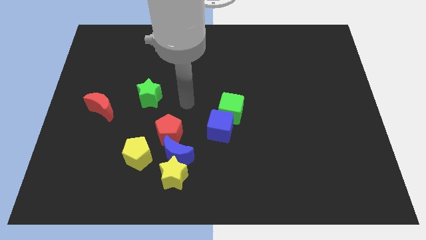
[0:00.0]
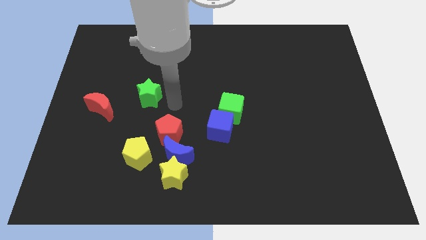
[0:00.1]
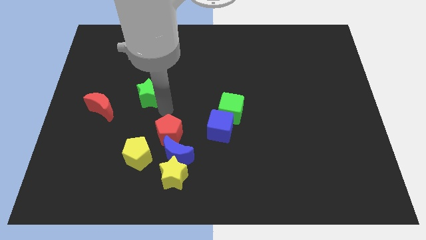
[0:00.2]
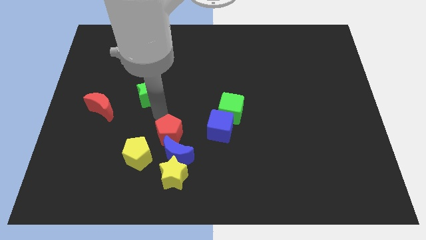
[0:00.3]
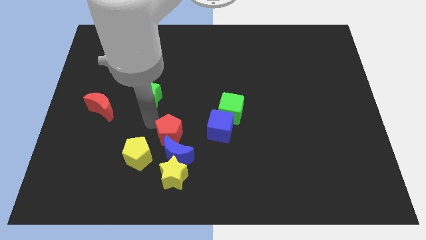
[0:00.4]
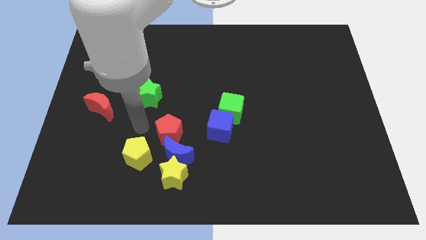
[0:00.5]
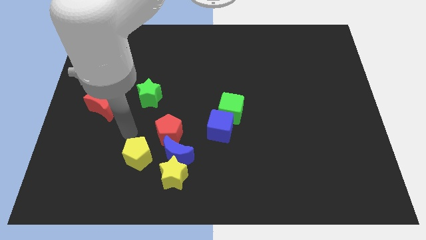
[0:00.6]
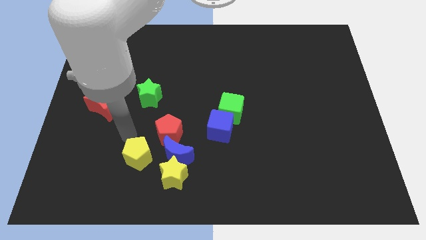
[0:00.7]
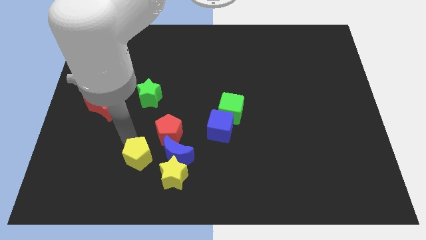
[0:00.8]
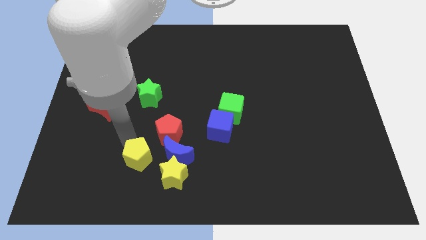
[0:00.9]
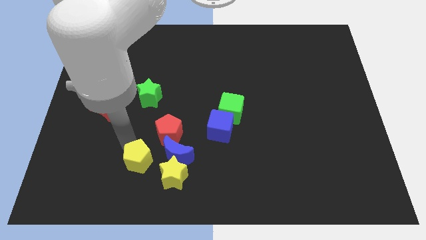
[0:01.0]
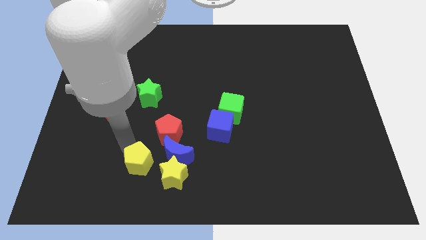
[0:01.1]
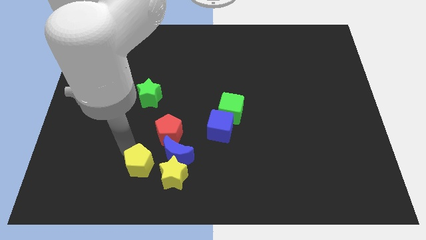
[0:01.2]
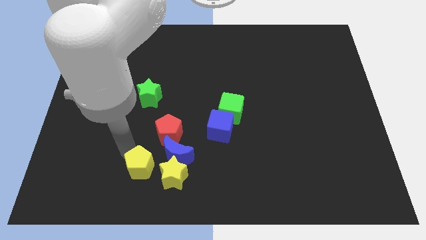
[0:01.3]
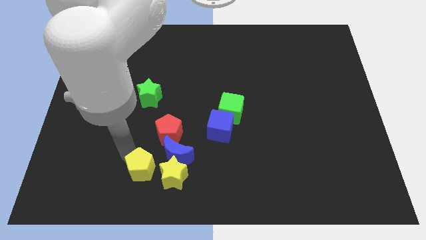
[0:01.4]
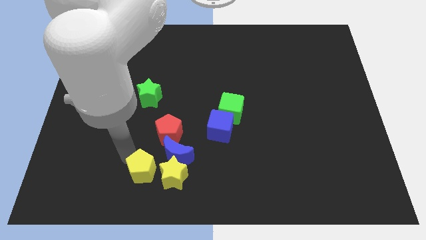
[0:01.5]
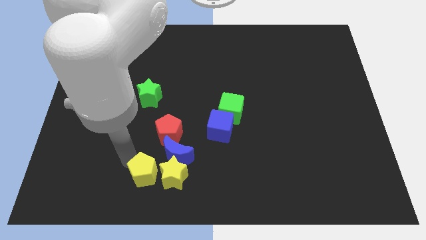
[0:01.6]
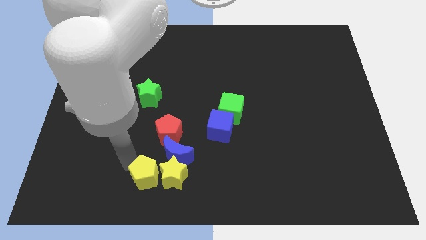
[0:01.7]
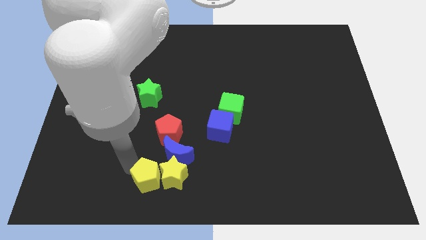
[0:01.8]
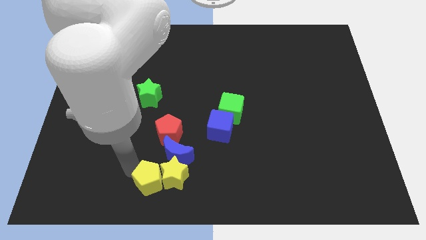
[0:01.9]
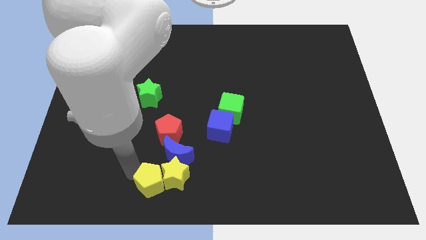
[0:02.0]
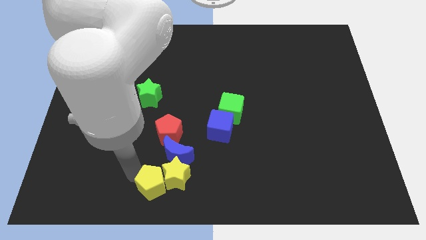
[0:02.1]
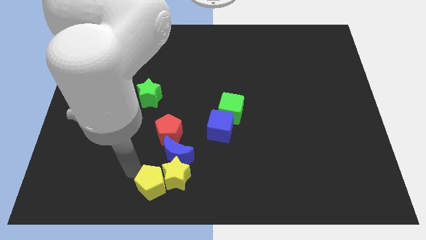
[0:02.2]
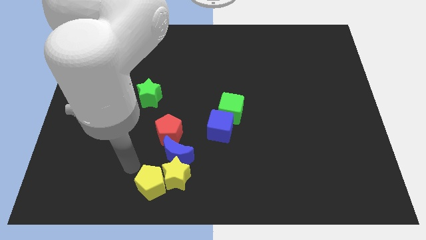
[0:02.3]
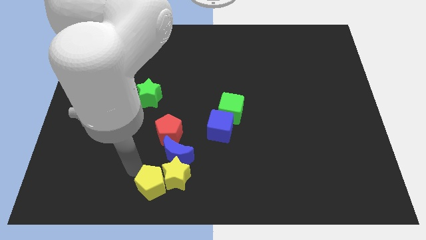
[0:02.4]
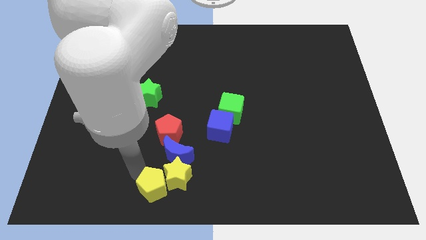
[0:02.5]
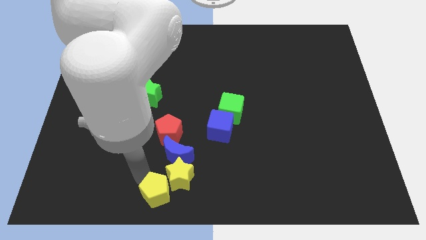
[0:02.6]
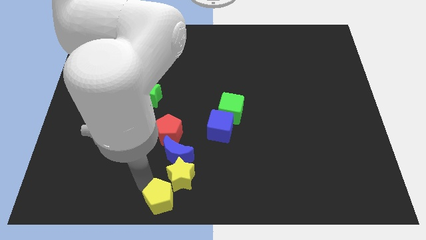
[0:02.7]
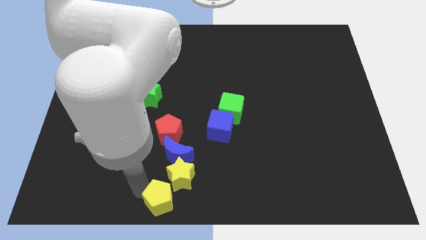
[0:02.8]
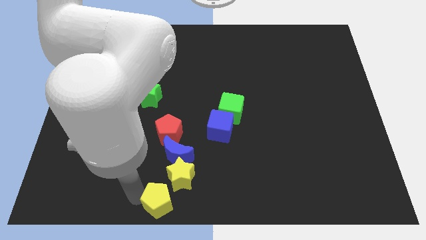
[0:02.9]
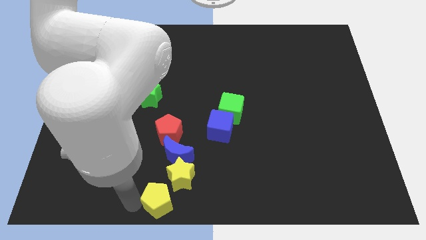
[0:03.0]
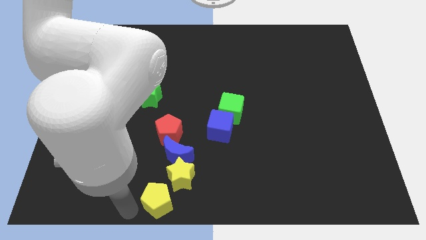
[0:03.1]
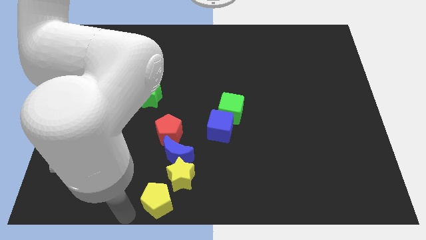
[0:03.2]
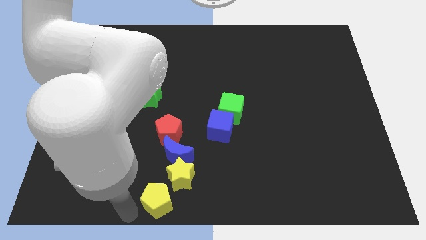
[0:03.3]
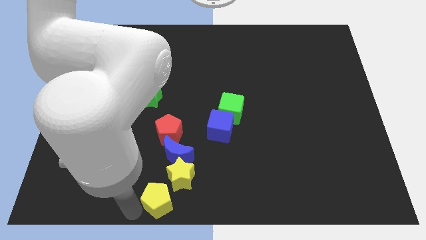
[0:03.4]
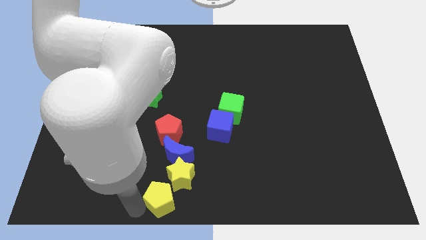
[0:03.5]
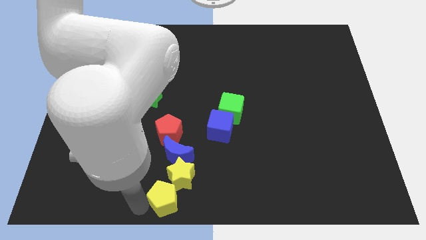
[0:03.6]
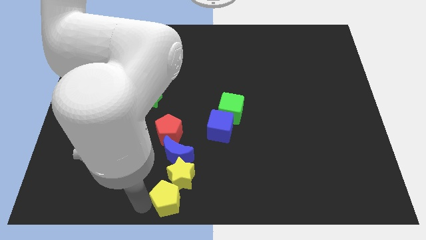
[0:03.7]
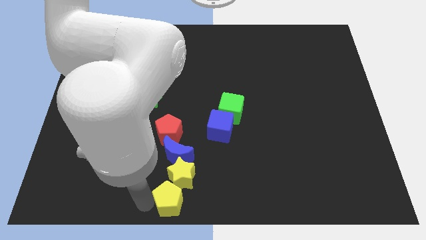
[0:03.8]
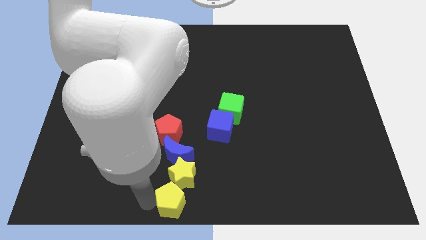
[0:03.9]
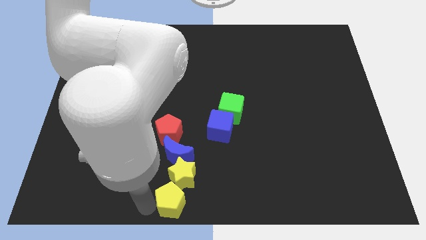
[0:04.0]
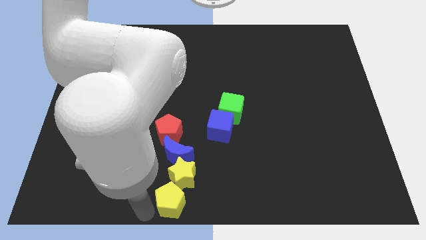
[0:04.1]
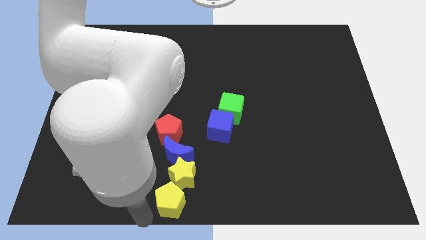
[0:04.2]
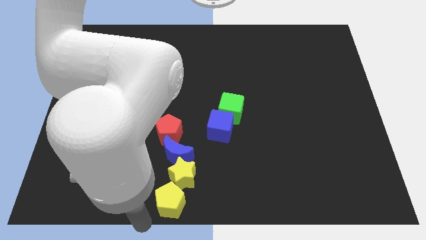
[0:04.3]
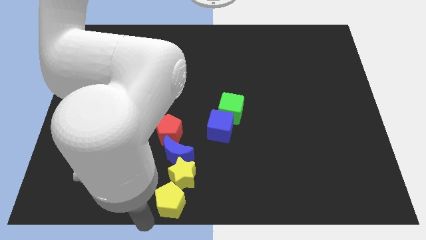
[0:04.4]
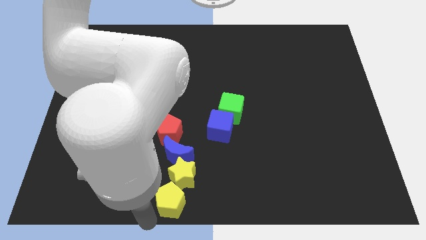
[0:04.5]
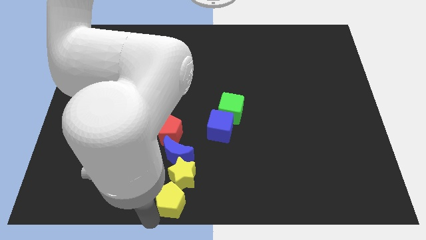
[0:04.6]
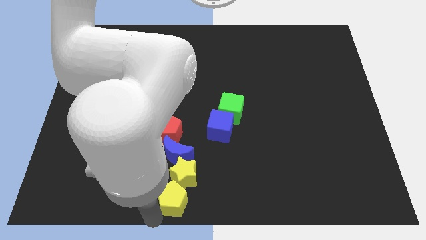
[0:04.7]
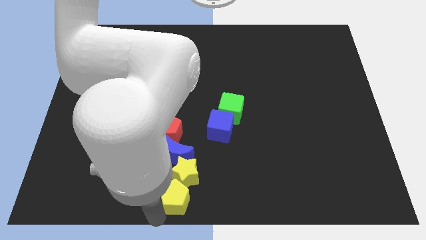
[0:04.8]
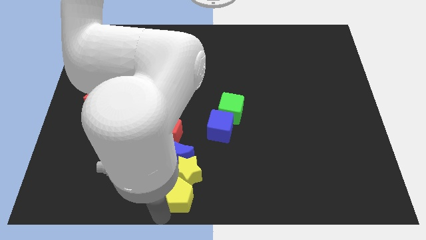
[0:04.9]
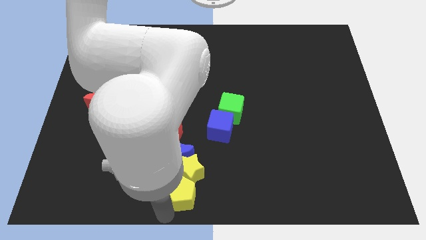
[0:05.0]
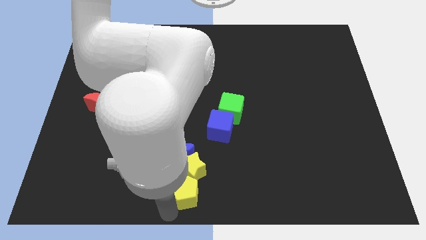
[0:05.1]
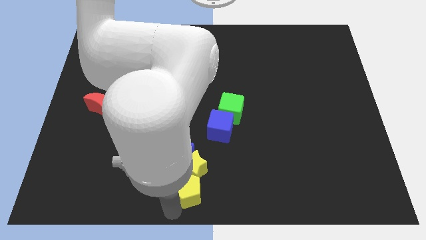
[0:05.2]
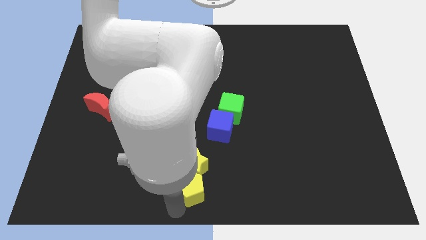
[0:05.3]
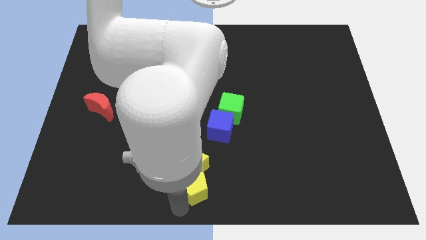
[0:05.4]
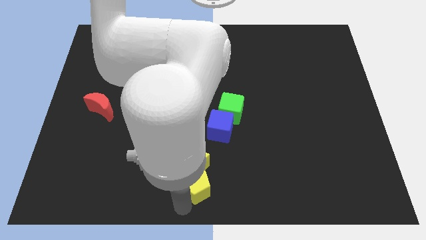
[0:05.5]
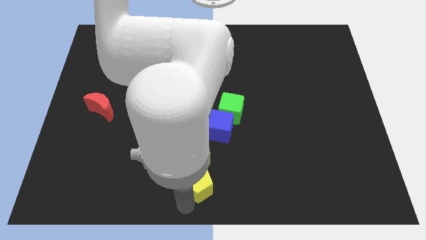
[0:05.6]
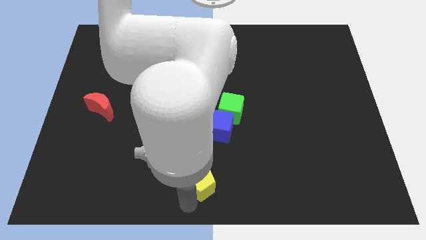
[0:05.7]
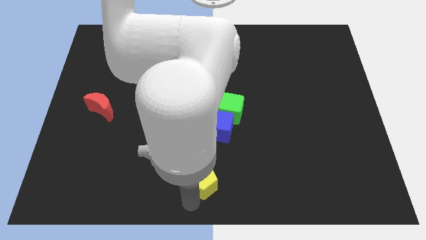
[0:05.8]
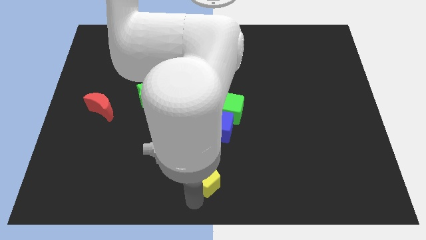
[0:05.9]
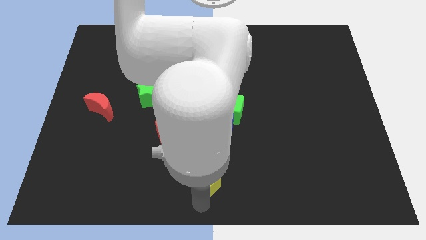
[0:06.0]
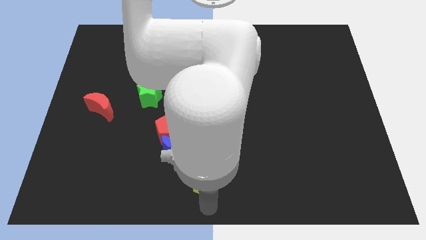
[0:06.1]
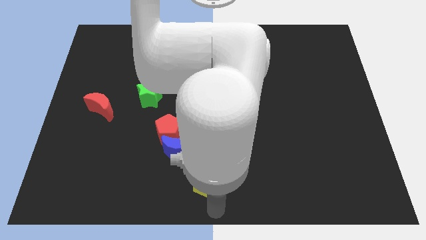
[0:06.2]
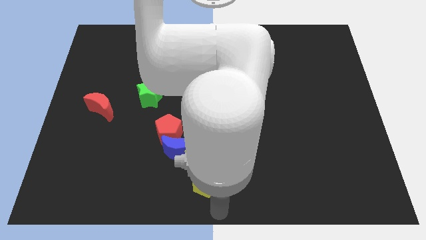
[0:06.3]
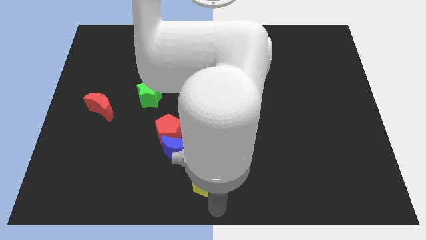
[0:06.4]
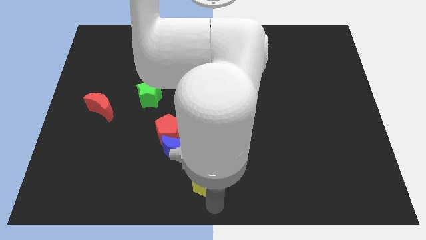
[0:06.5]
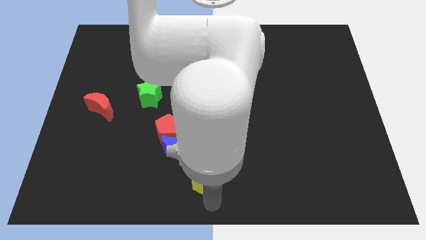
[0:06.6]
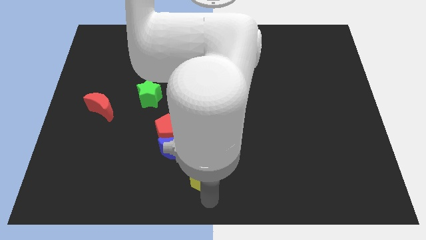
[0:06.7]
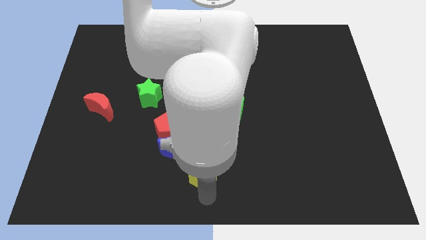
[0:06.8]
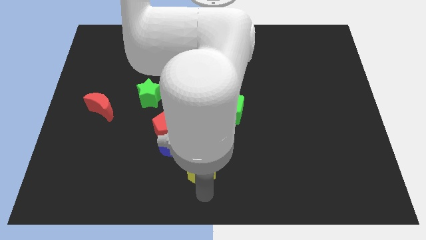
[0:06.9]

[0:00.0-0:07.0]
put the yellow pentagon to the bottom right of the red pentagon

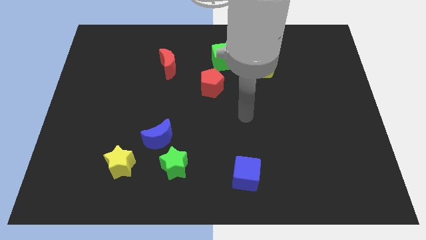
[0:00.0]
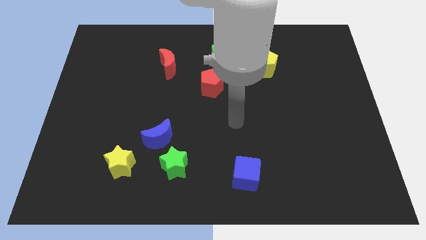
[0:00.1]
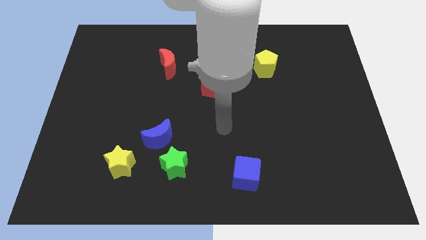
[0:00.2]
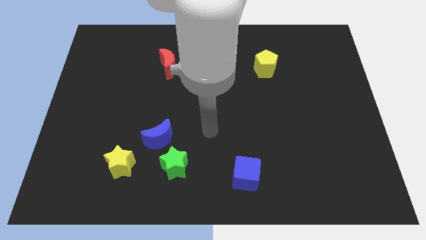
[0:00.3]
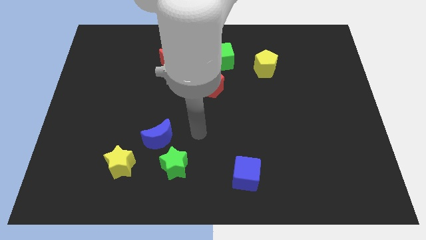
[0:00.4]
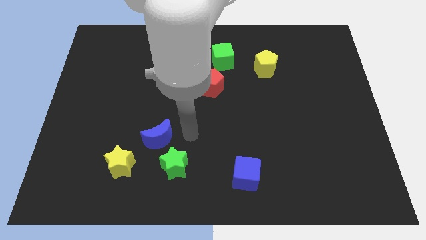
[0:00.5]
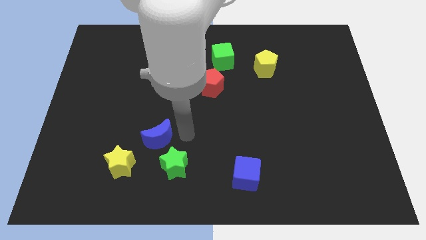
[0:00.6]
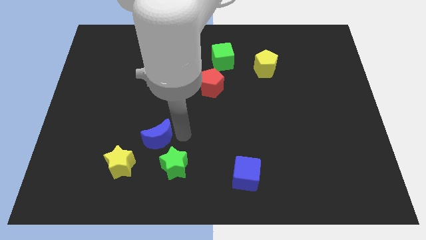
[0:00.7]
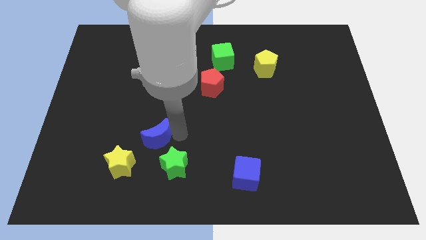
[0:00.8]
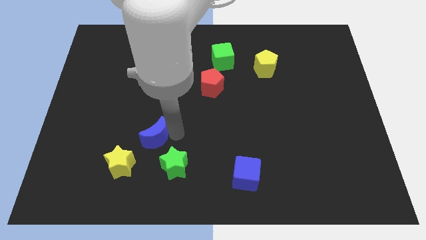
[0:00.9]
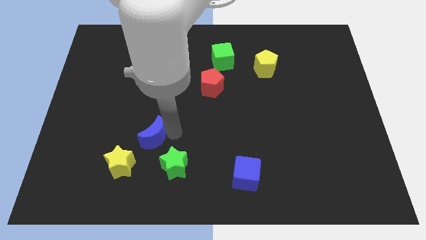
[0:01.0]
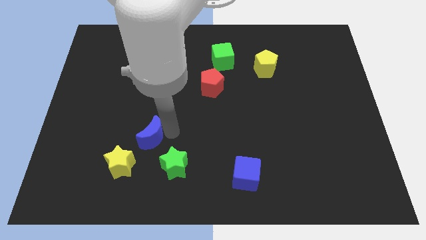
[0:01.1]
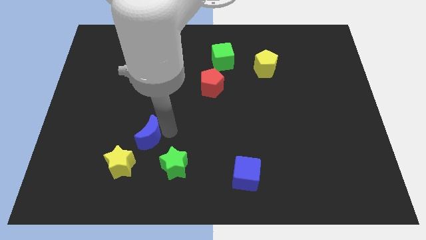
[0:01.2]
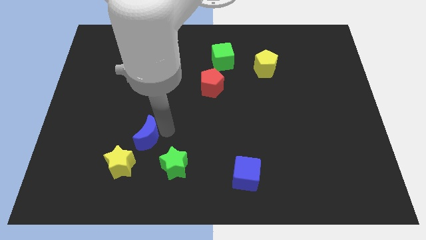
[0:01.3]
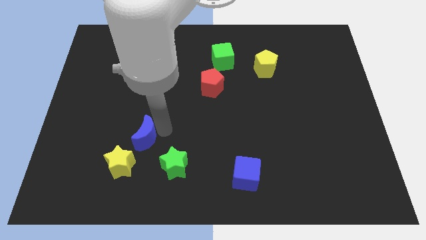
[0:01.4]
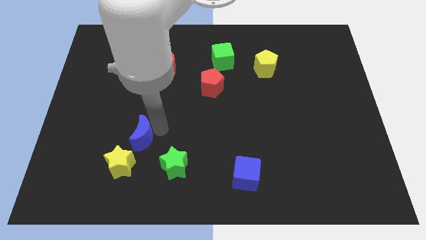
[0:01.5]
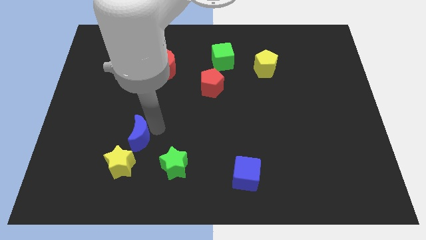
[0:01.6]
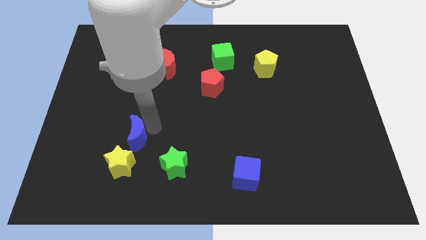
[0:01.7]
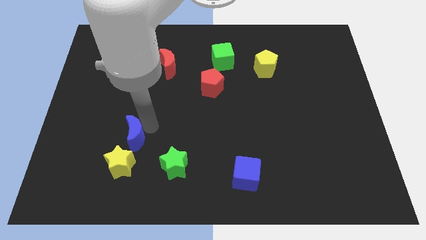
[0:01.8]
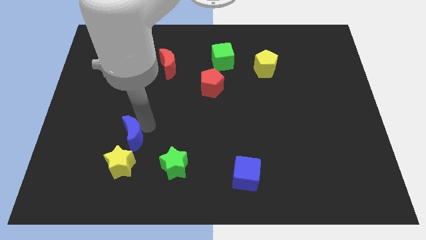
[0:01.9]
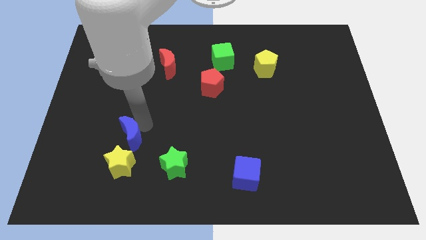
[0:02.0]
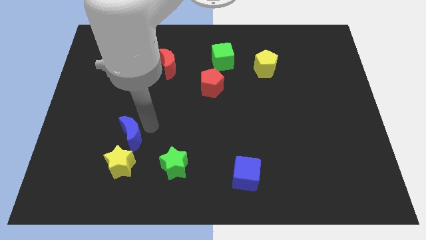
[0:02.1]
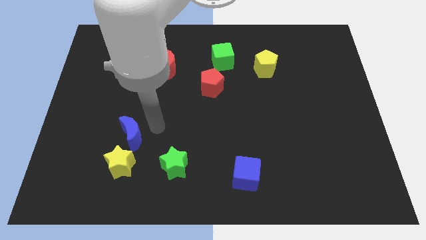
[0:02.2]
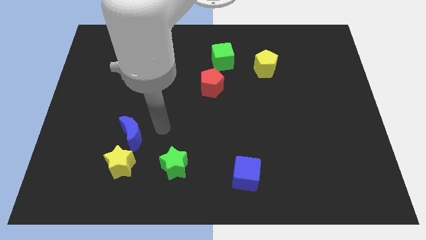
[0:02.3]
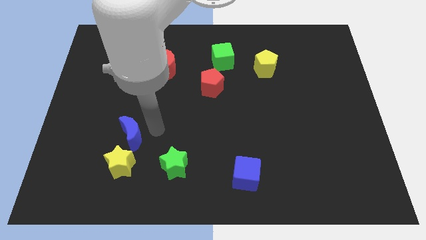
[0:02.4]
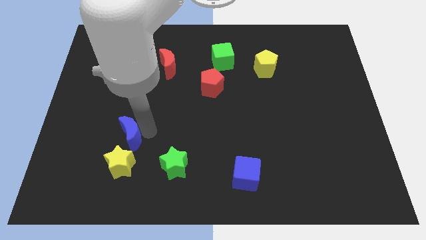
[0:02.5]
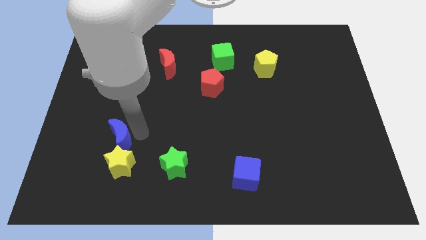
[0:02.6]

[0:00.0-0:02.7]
push the blue moon diagonally up and to the left of the yellow star
